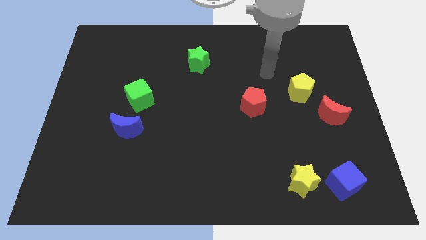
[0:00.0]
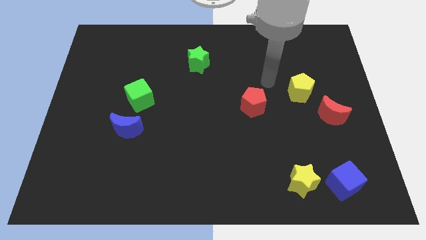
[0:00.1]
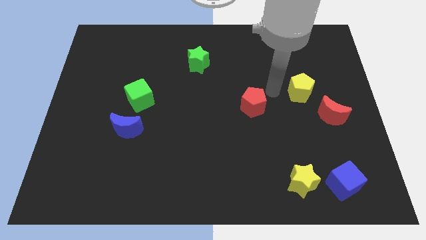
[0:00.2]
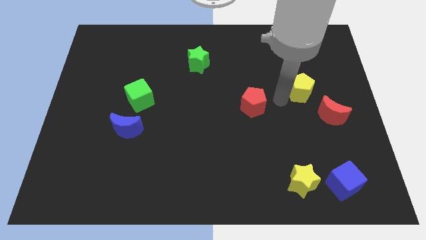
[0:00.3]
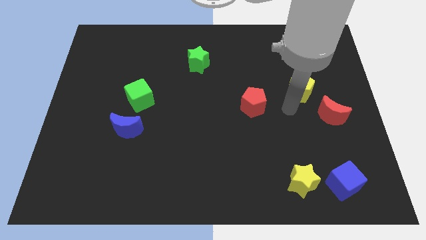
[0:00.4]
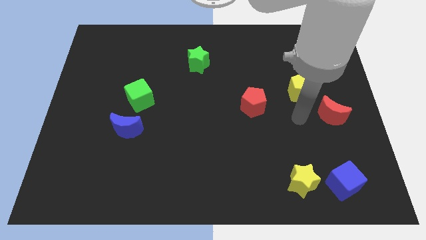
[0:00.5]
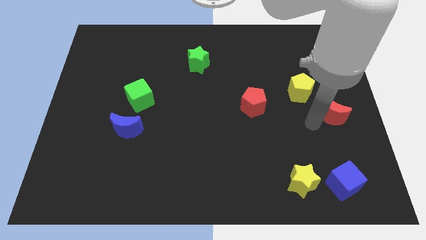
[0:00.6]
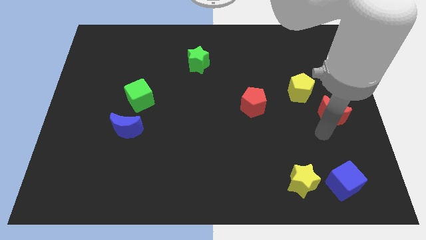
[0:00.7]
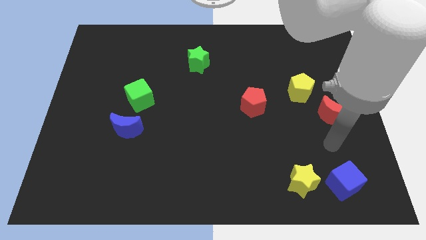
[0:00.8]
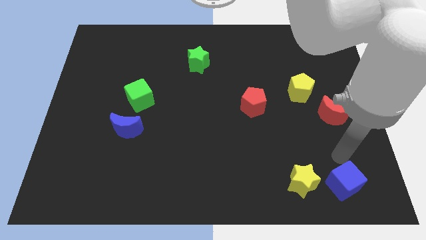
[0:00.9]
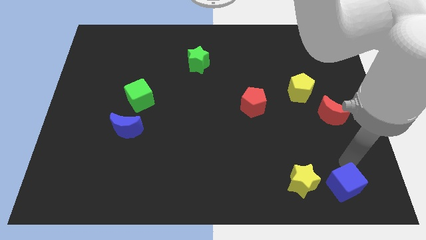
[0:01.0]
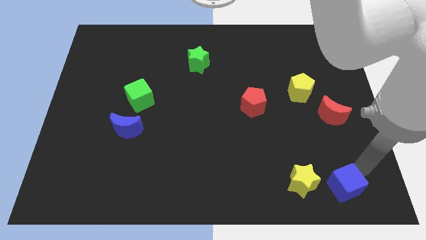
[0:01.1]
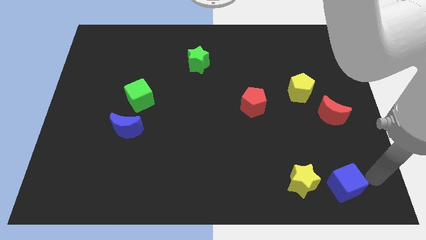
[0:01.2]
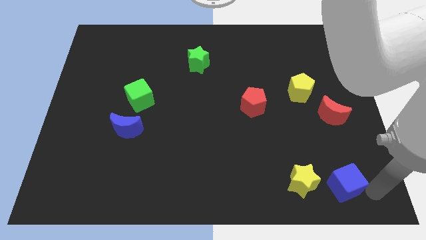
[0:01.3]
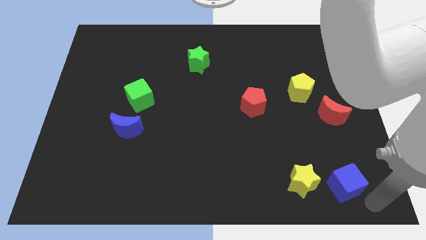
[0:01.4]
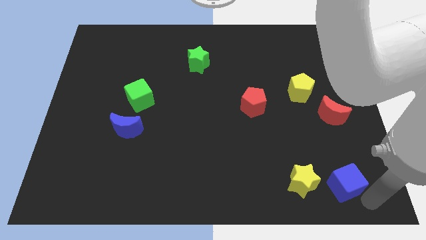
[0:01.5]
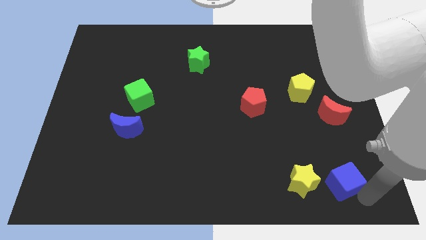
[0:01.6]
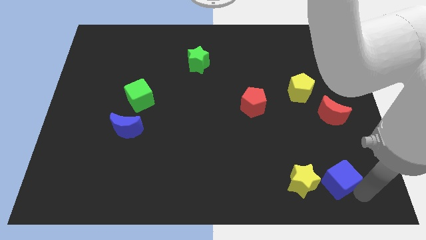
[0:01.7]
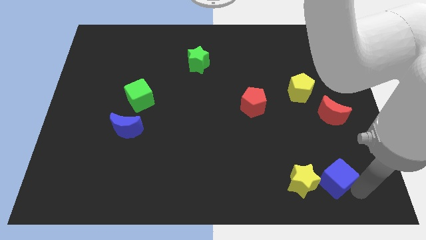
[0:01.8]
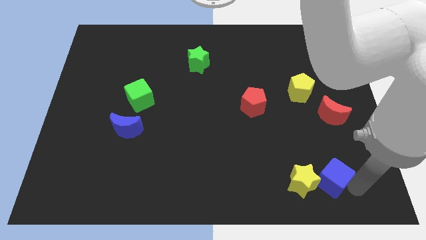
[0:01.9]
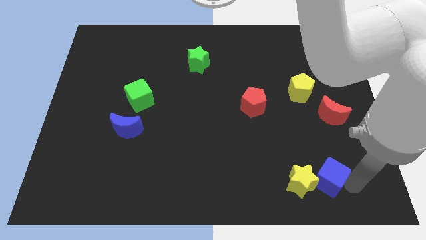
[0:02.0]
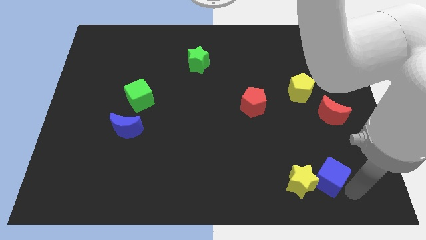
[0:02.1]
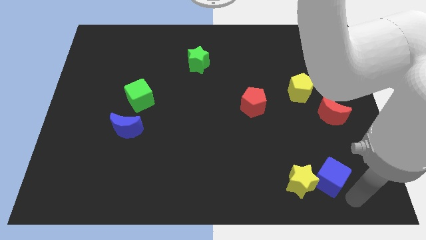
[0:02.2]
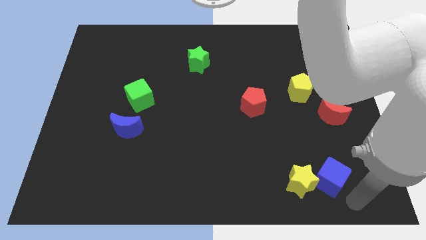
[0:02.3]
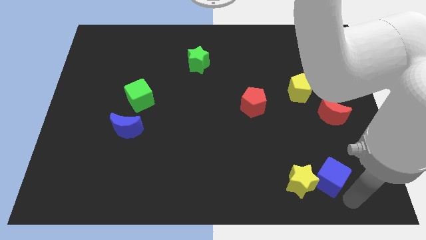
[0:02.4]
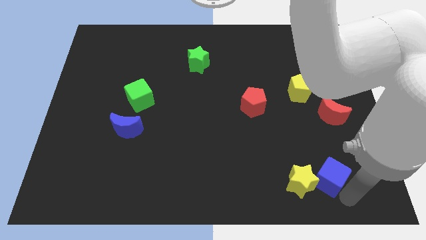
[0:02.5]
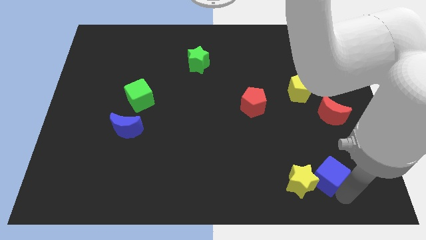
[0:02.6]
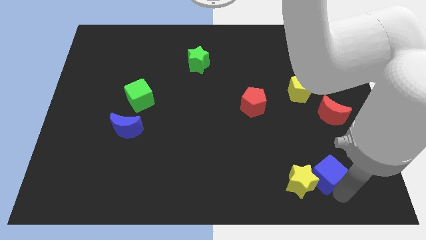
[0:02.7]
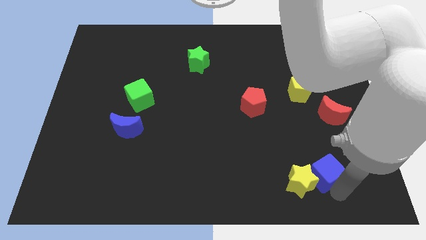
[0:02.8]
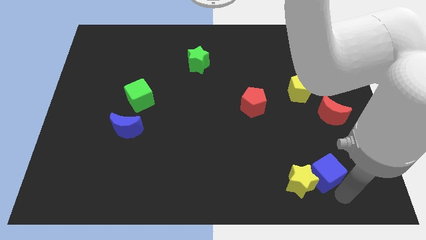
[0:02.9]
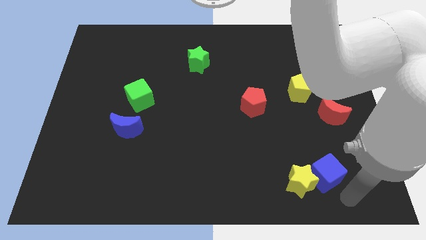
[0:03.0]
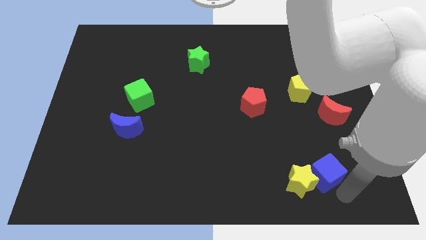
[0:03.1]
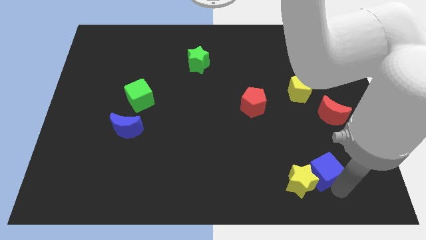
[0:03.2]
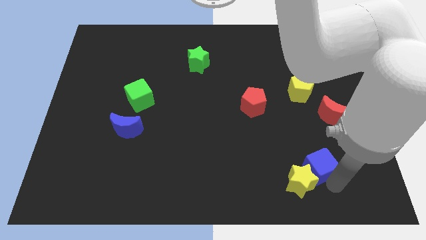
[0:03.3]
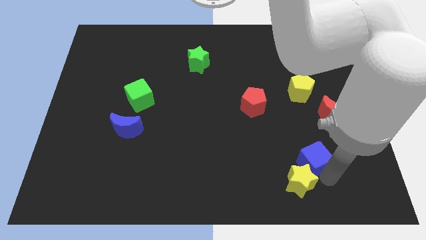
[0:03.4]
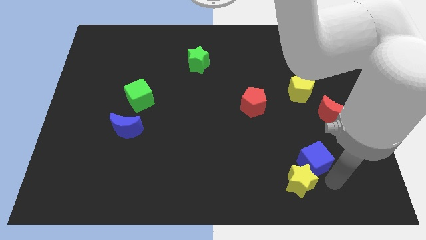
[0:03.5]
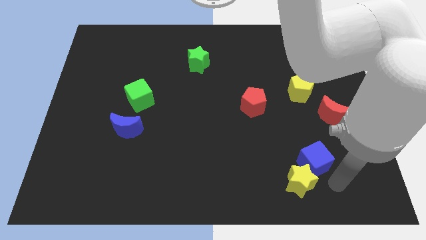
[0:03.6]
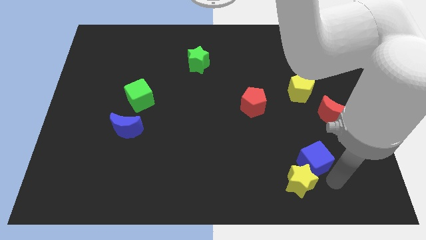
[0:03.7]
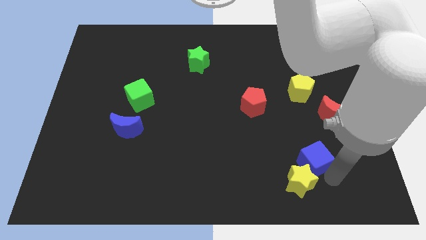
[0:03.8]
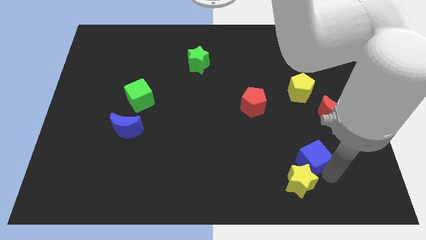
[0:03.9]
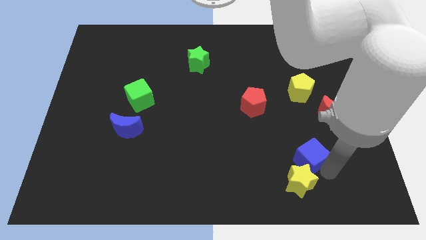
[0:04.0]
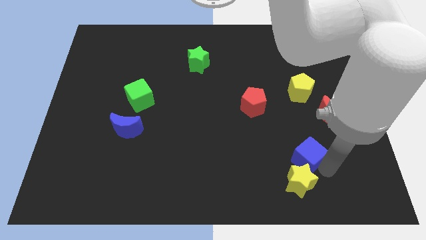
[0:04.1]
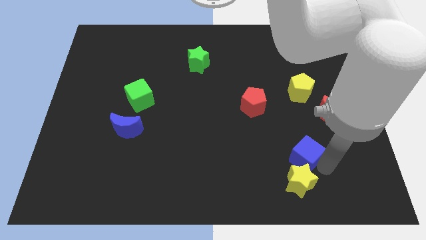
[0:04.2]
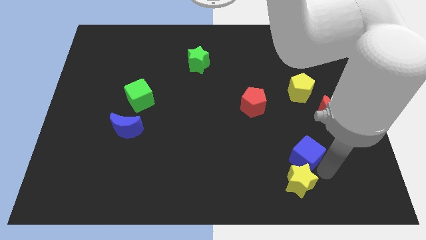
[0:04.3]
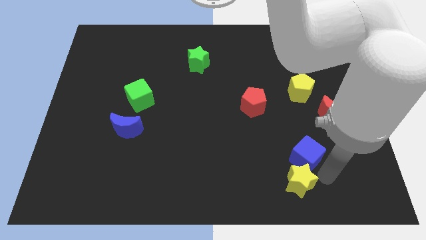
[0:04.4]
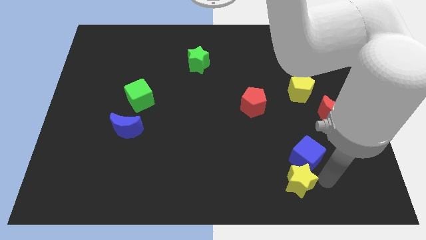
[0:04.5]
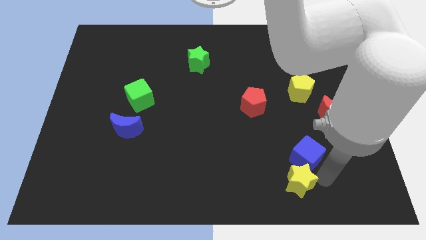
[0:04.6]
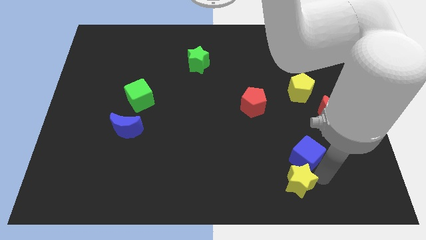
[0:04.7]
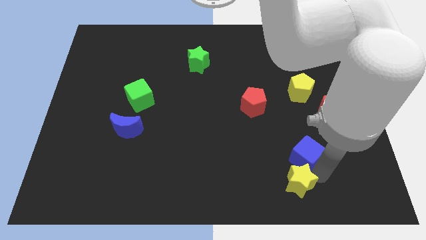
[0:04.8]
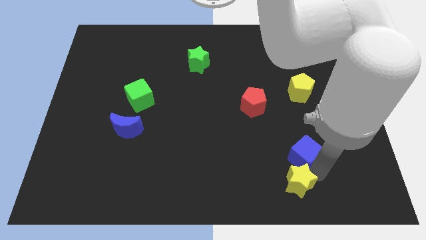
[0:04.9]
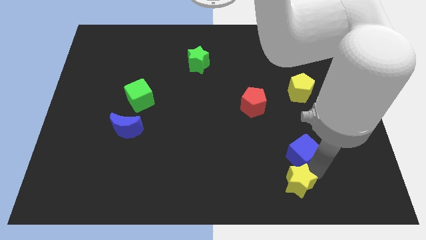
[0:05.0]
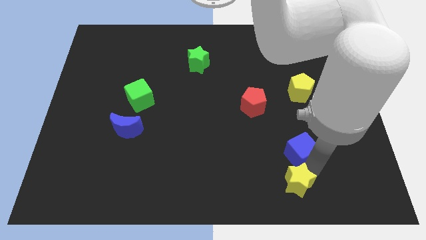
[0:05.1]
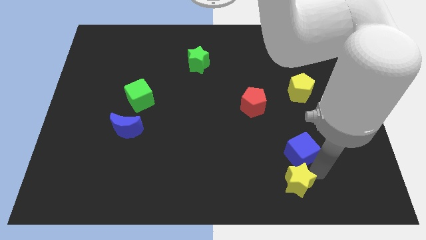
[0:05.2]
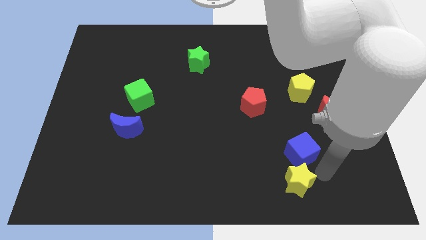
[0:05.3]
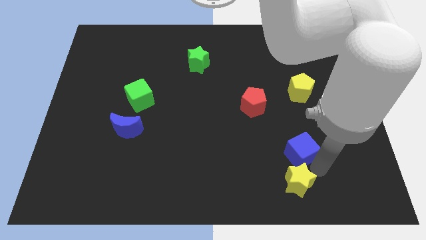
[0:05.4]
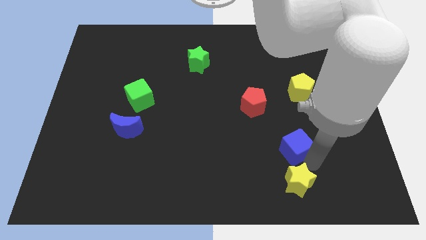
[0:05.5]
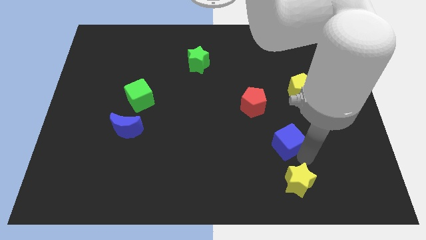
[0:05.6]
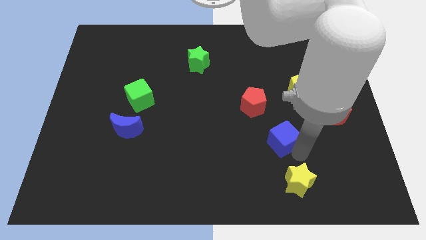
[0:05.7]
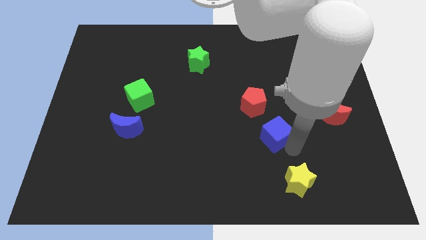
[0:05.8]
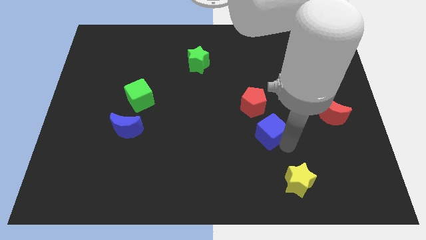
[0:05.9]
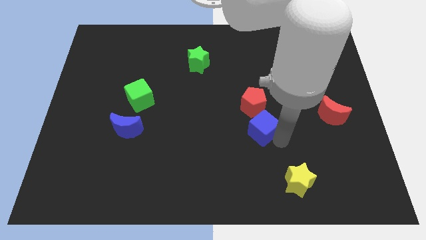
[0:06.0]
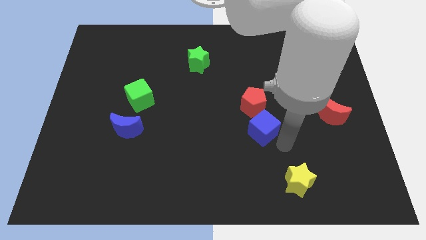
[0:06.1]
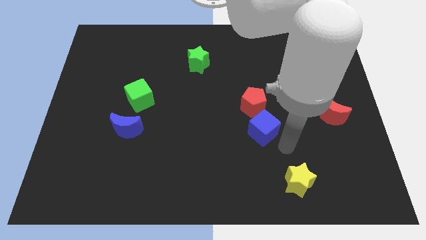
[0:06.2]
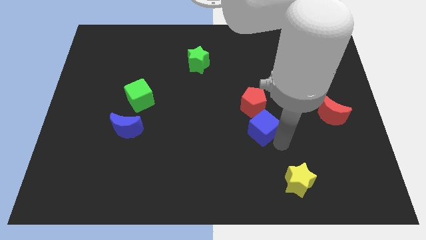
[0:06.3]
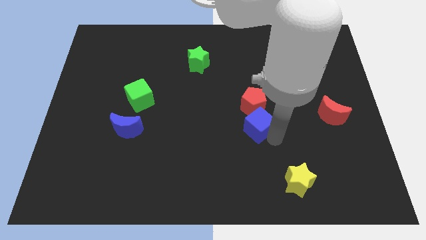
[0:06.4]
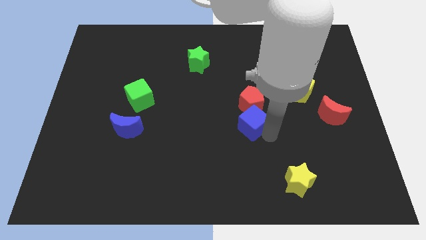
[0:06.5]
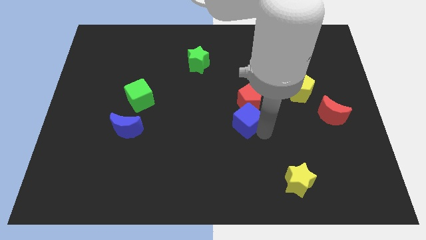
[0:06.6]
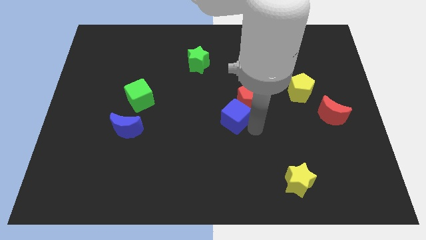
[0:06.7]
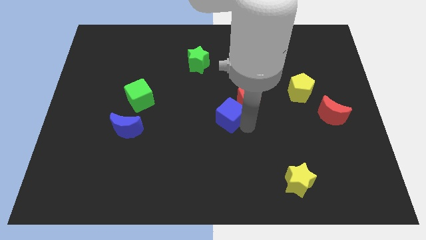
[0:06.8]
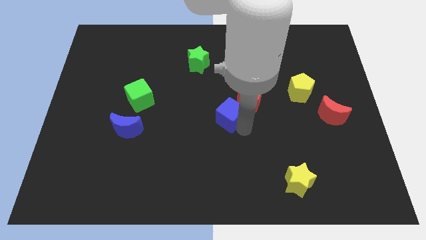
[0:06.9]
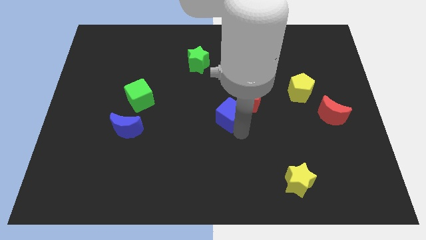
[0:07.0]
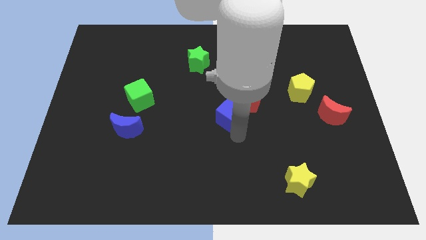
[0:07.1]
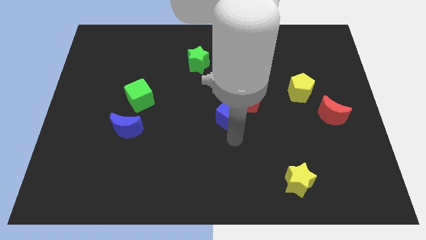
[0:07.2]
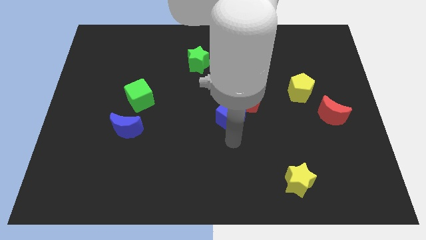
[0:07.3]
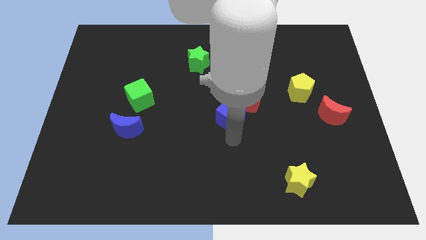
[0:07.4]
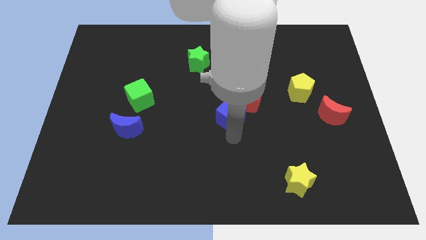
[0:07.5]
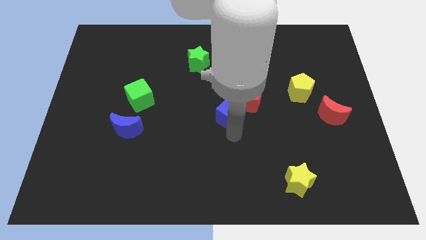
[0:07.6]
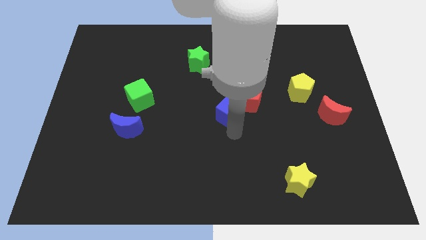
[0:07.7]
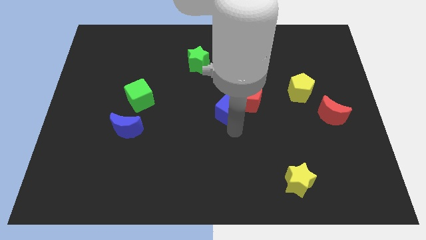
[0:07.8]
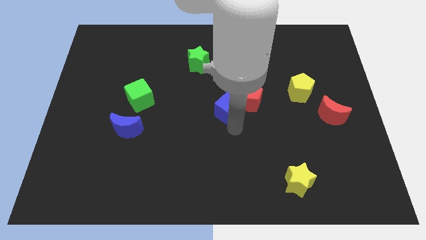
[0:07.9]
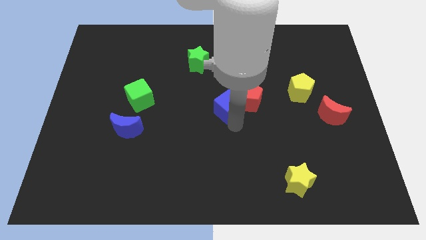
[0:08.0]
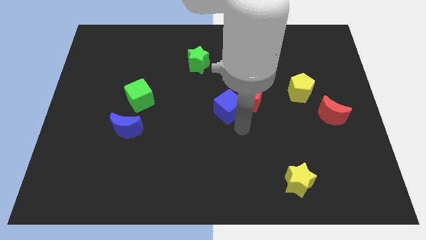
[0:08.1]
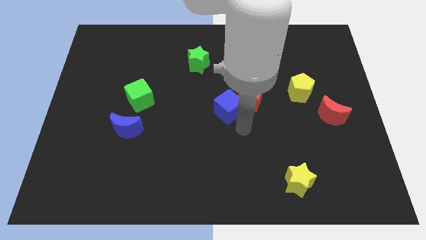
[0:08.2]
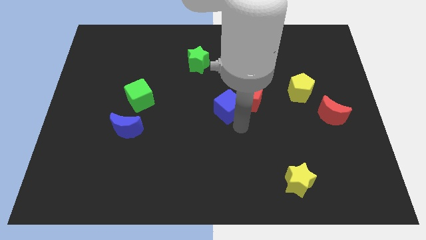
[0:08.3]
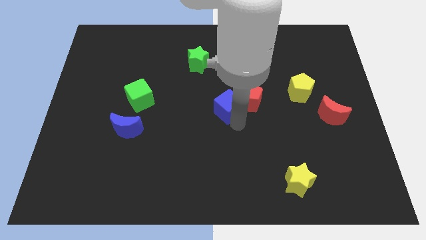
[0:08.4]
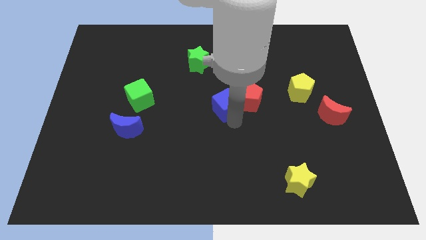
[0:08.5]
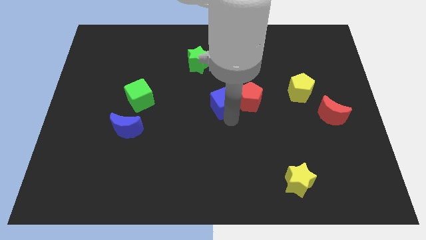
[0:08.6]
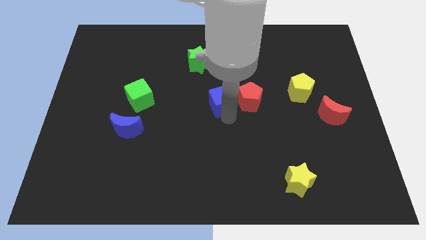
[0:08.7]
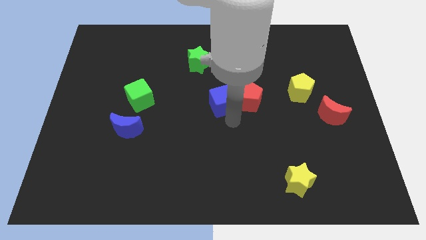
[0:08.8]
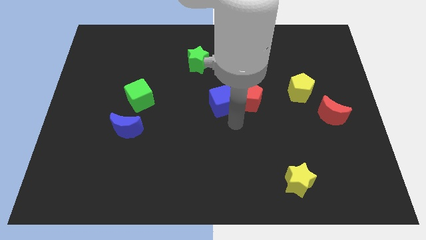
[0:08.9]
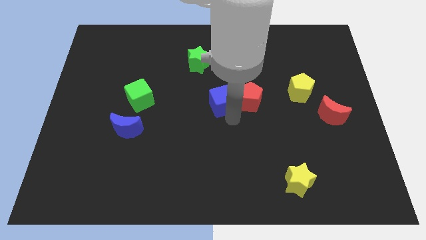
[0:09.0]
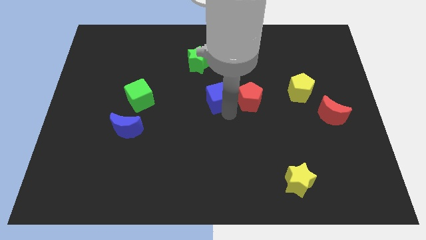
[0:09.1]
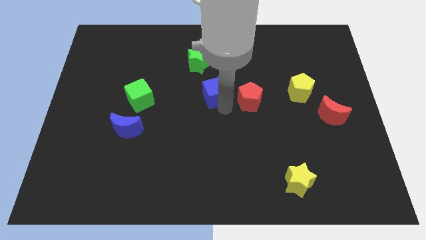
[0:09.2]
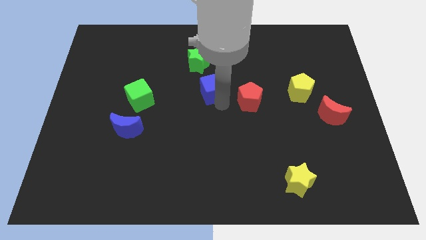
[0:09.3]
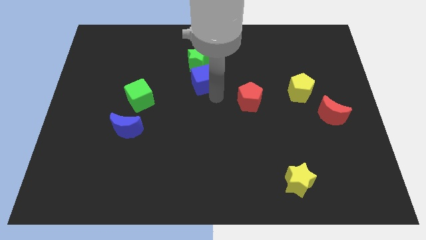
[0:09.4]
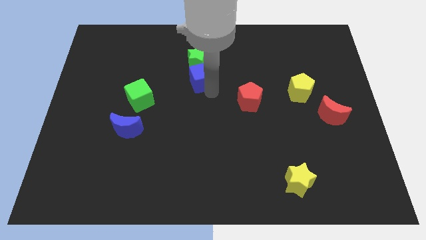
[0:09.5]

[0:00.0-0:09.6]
slide the blue cube next to the green star
